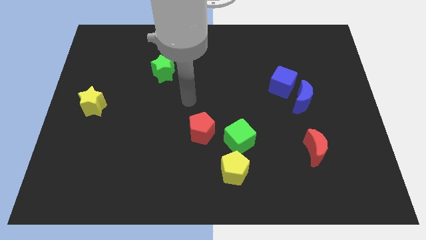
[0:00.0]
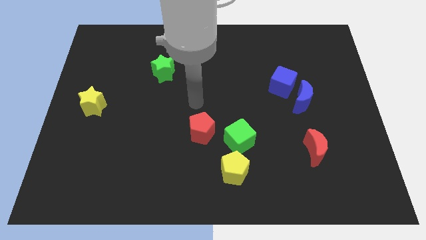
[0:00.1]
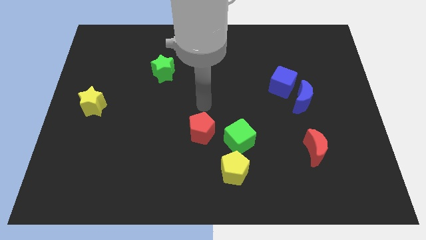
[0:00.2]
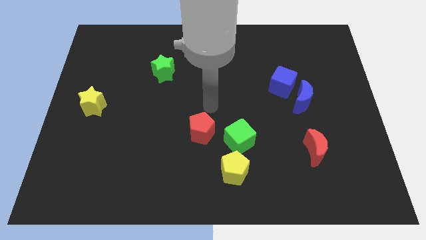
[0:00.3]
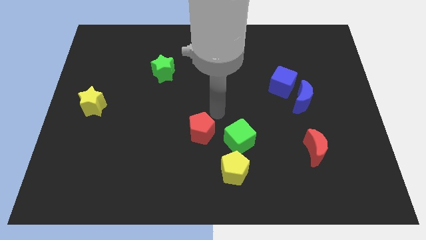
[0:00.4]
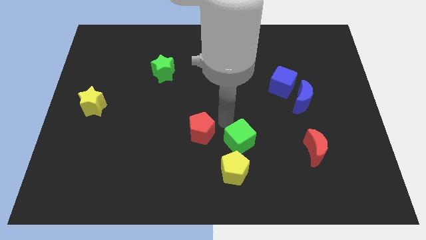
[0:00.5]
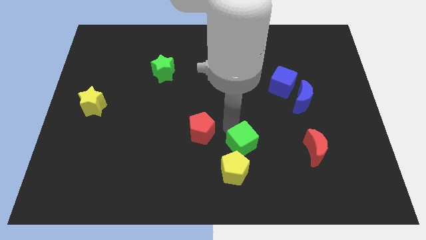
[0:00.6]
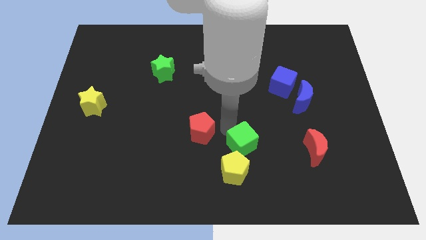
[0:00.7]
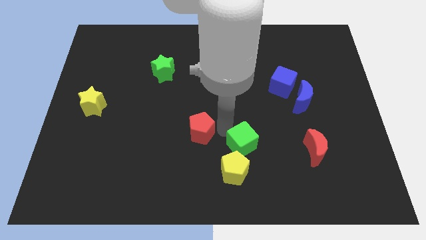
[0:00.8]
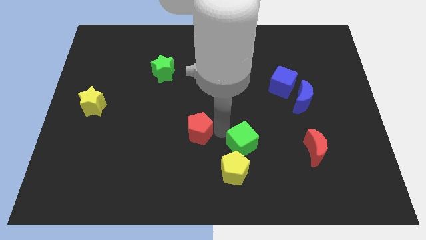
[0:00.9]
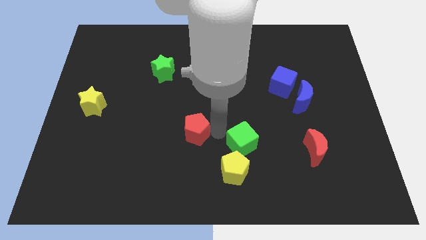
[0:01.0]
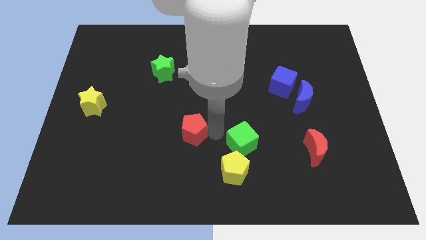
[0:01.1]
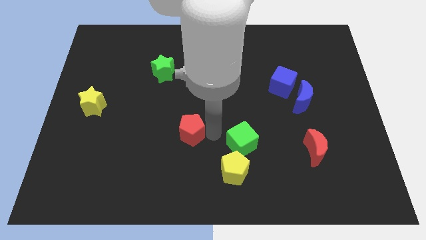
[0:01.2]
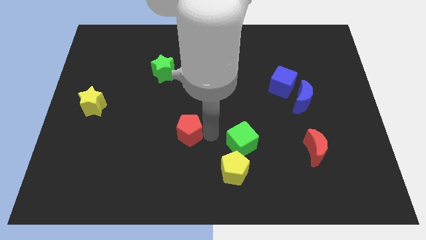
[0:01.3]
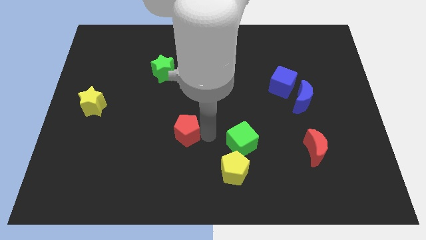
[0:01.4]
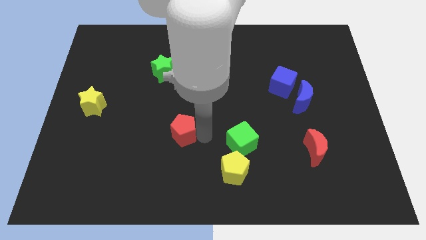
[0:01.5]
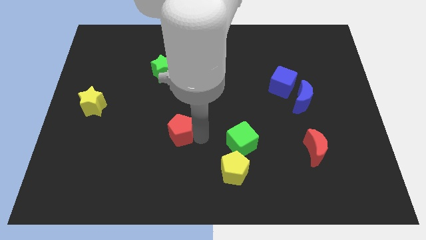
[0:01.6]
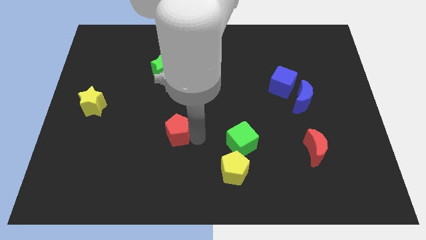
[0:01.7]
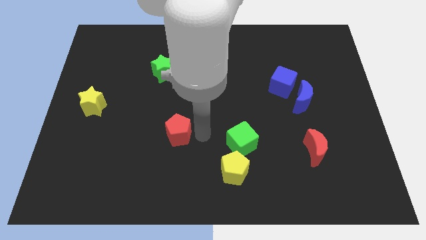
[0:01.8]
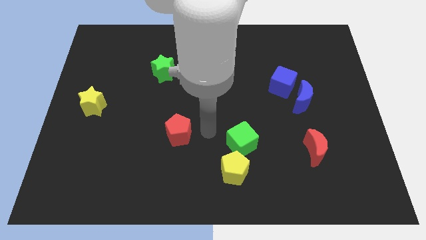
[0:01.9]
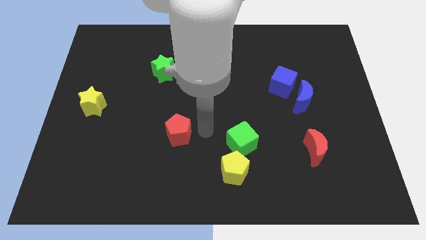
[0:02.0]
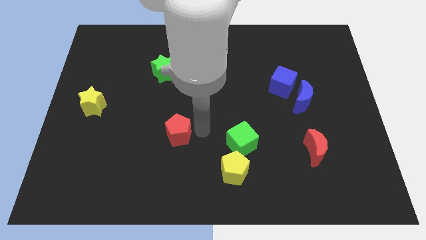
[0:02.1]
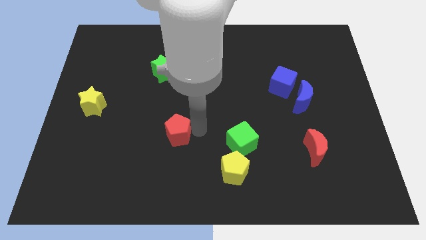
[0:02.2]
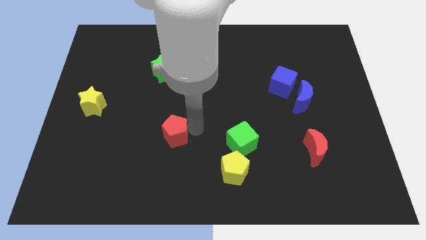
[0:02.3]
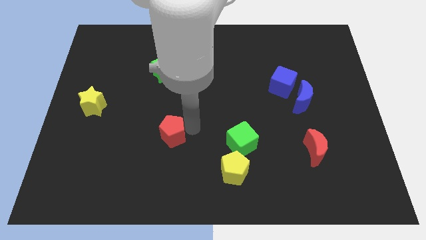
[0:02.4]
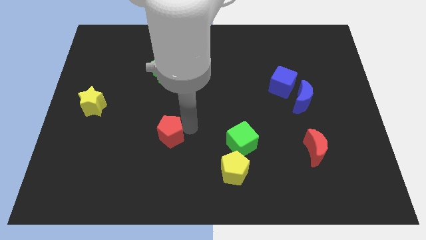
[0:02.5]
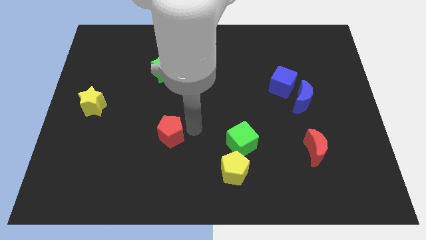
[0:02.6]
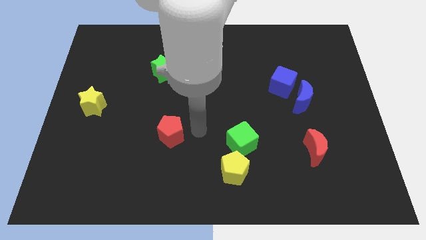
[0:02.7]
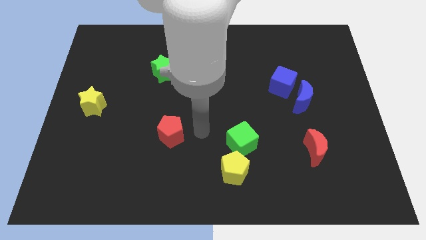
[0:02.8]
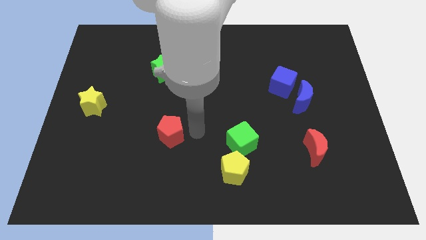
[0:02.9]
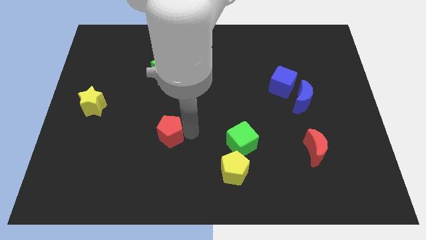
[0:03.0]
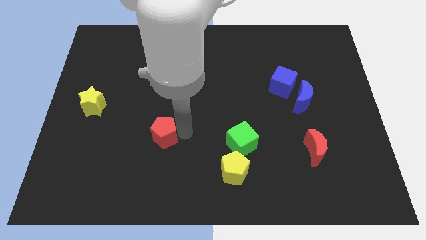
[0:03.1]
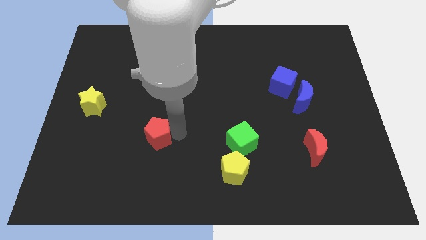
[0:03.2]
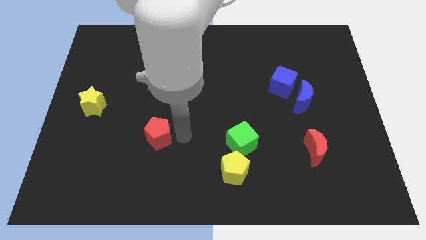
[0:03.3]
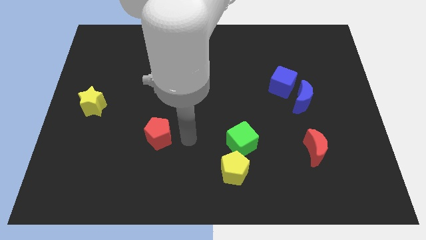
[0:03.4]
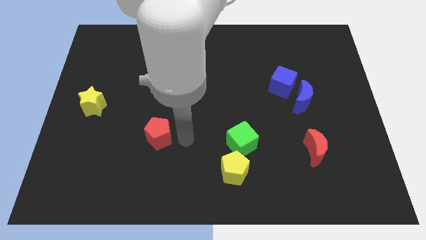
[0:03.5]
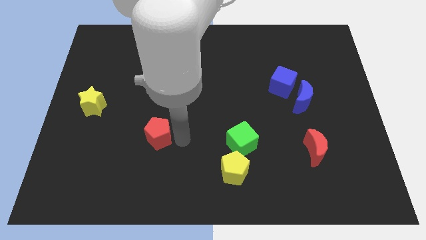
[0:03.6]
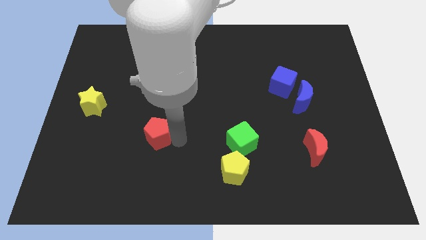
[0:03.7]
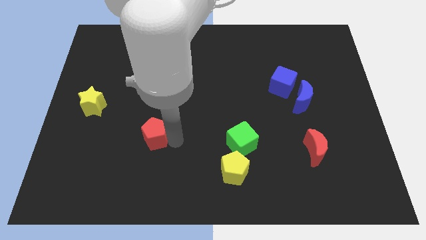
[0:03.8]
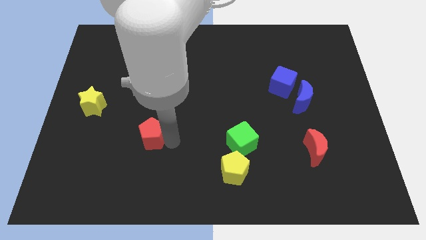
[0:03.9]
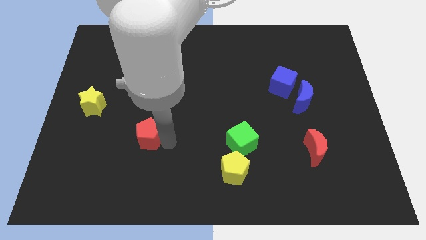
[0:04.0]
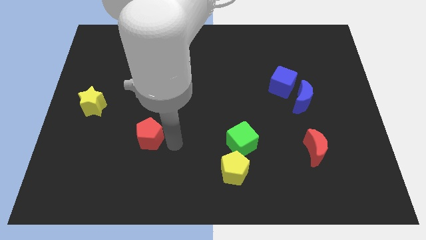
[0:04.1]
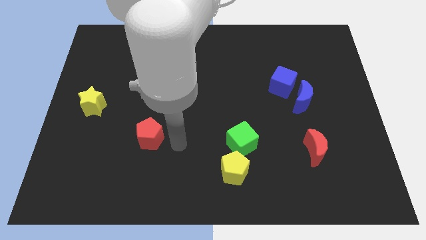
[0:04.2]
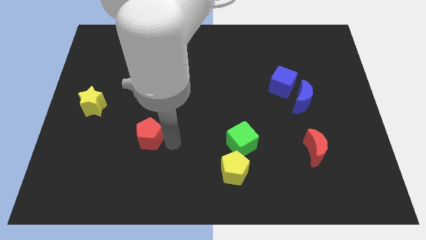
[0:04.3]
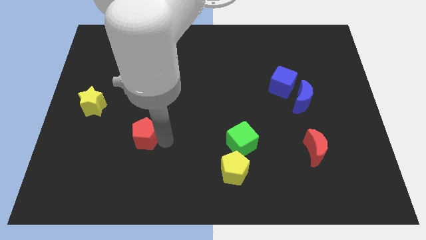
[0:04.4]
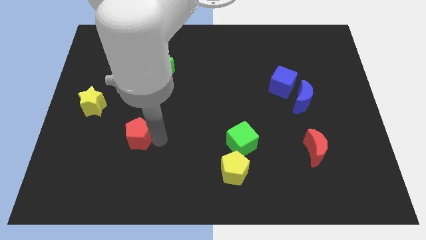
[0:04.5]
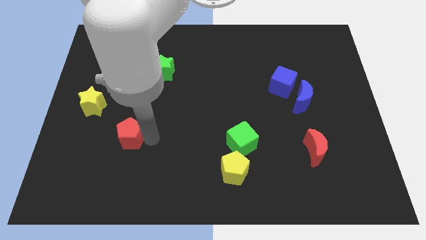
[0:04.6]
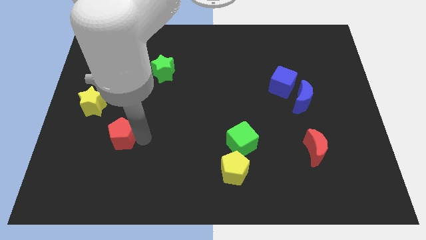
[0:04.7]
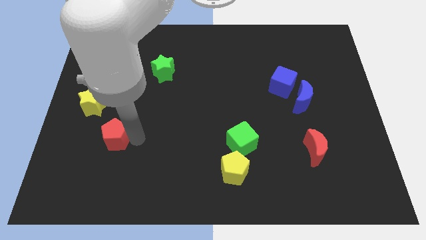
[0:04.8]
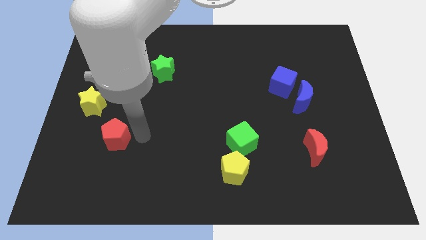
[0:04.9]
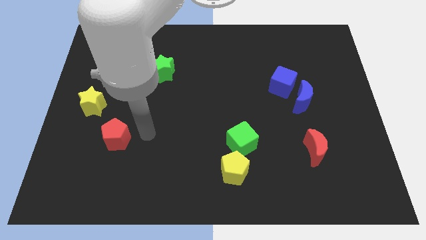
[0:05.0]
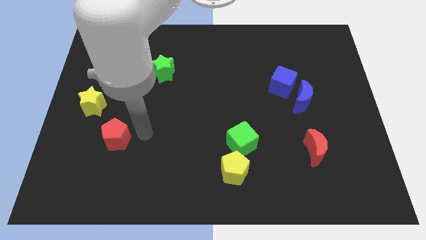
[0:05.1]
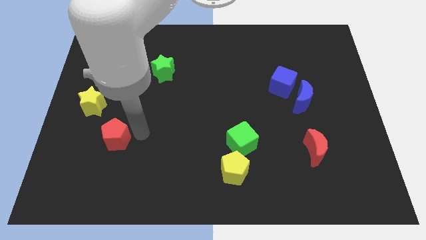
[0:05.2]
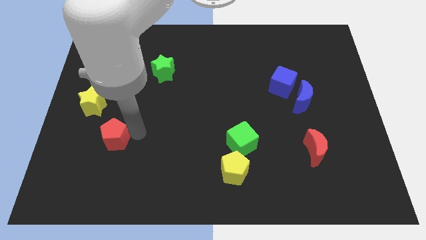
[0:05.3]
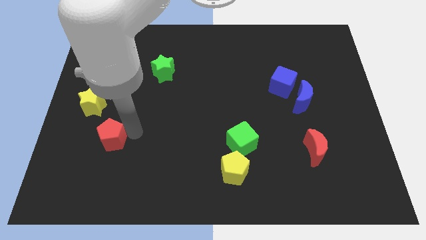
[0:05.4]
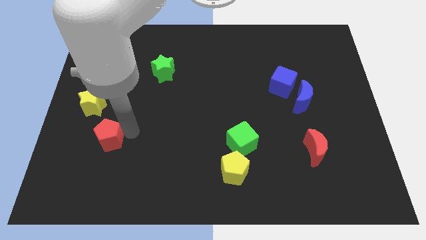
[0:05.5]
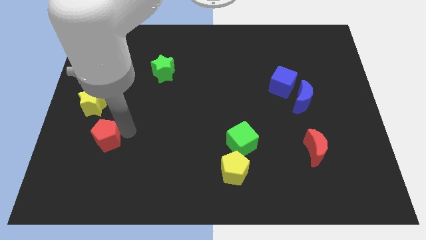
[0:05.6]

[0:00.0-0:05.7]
push the red pentagon to the bottom of the yellow star

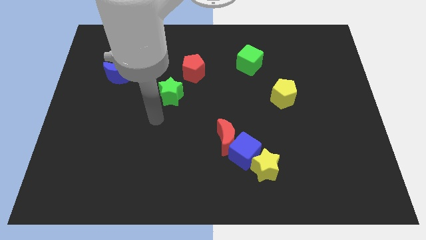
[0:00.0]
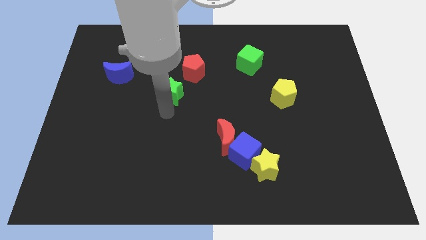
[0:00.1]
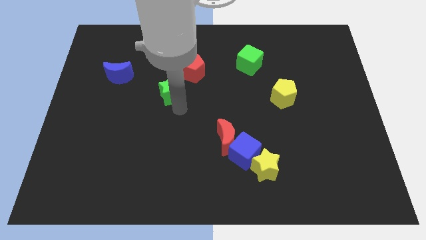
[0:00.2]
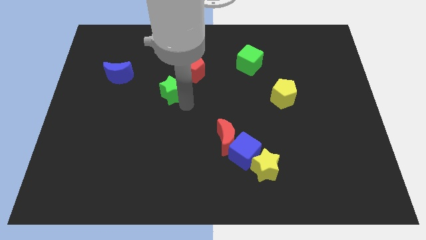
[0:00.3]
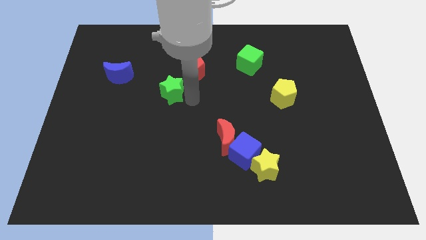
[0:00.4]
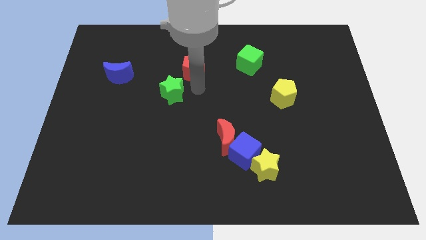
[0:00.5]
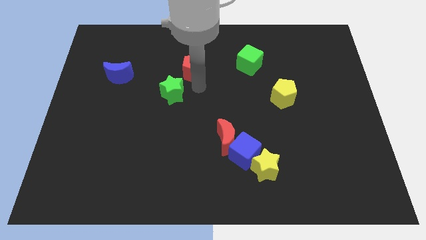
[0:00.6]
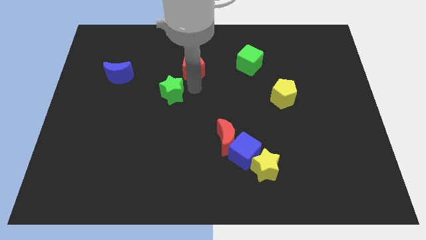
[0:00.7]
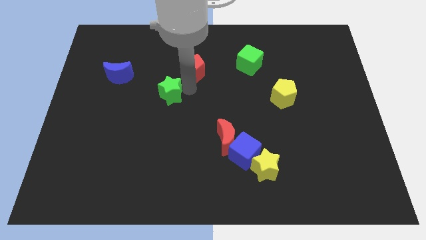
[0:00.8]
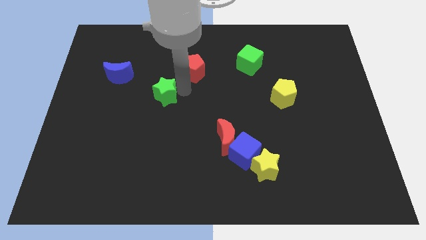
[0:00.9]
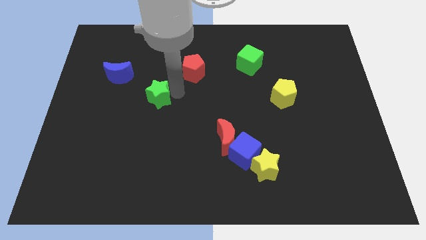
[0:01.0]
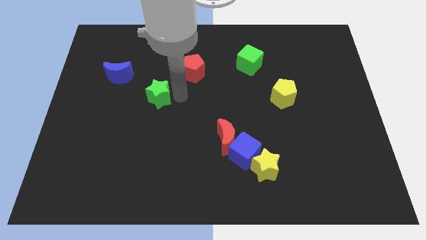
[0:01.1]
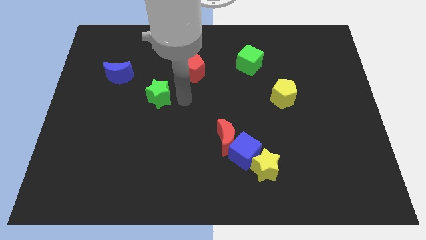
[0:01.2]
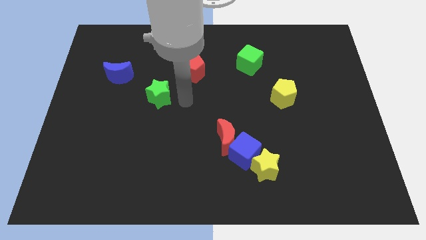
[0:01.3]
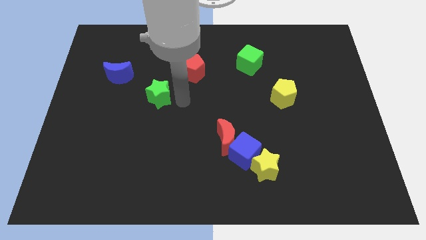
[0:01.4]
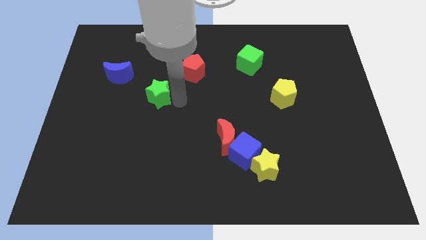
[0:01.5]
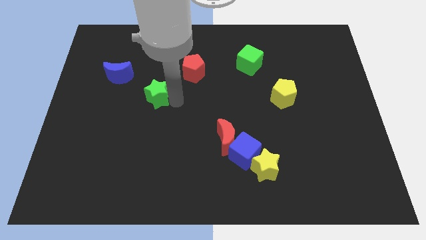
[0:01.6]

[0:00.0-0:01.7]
slide the green star to the bottom right of the blue moon
